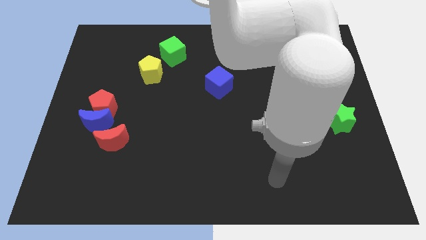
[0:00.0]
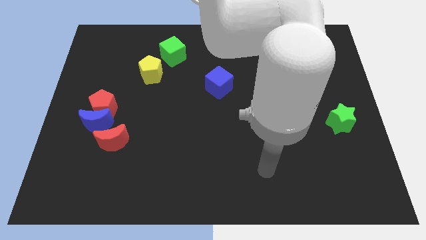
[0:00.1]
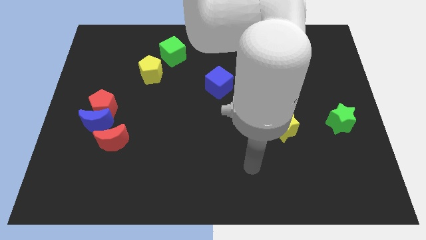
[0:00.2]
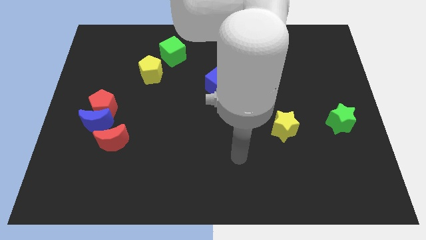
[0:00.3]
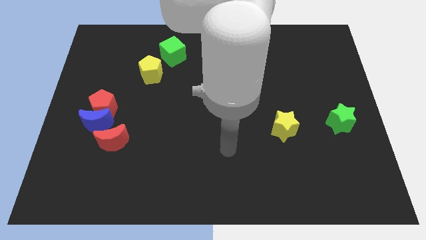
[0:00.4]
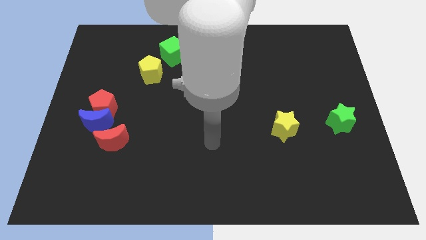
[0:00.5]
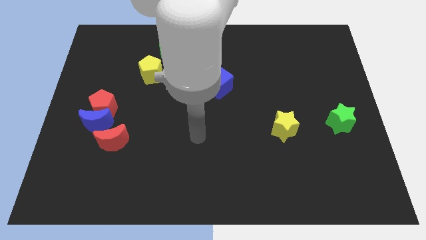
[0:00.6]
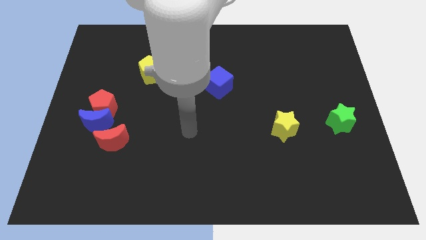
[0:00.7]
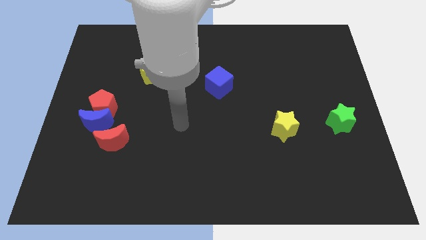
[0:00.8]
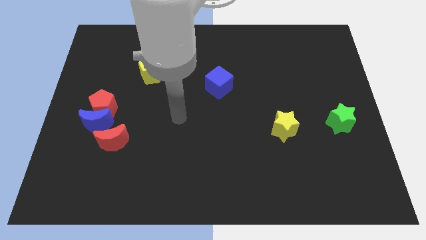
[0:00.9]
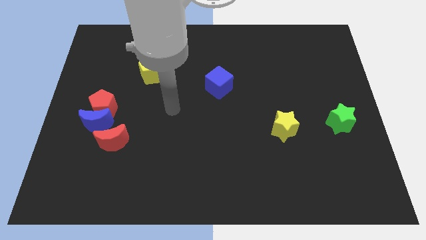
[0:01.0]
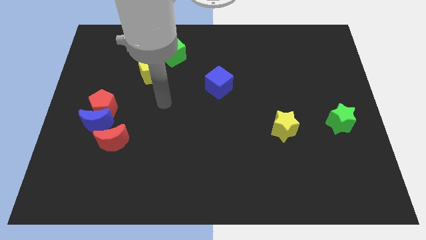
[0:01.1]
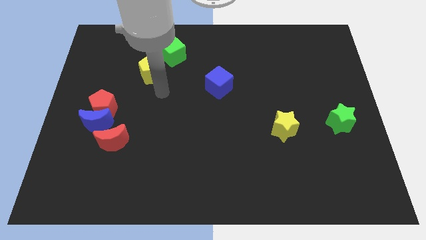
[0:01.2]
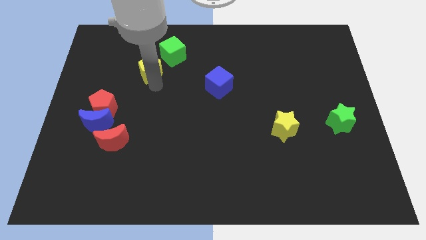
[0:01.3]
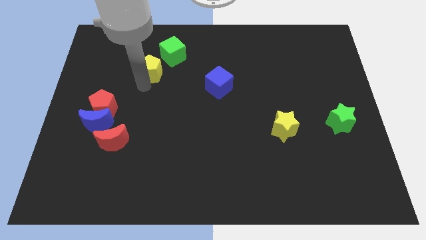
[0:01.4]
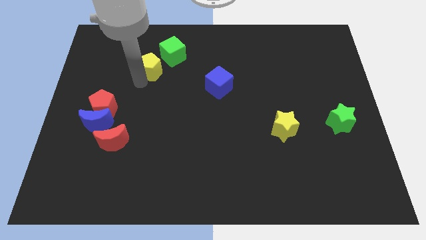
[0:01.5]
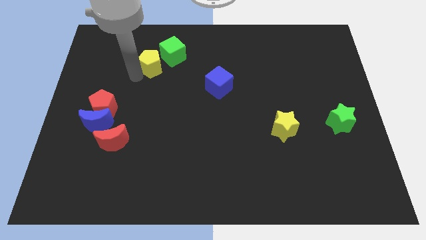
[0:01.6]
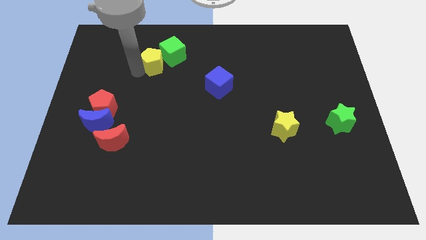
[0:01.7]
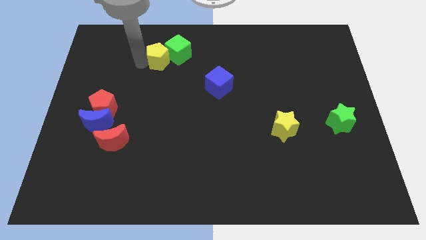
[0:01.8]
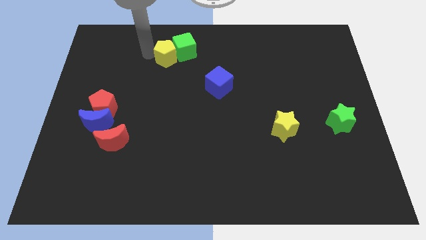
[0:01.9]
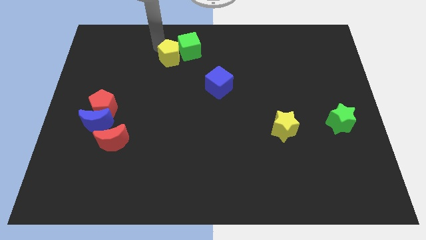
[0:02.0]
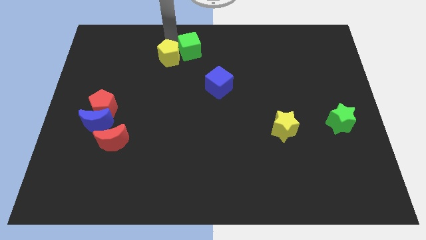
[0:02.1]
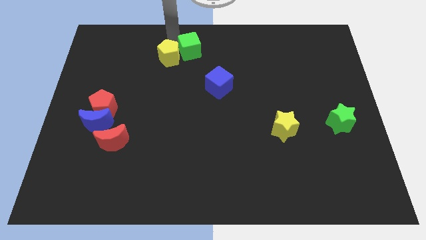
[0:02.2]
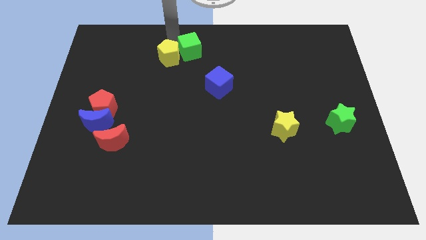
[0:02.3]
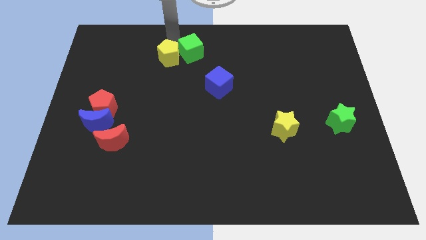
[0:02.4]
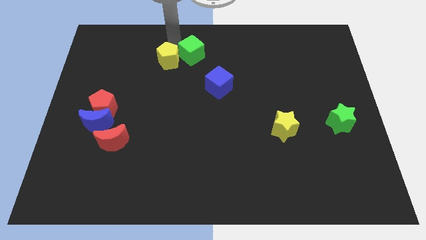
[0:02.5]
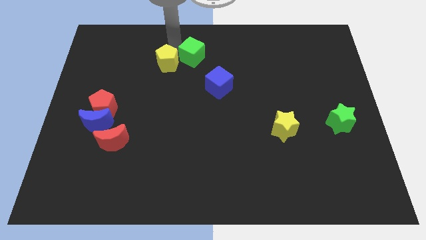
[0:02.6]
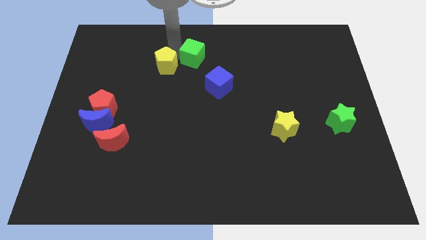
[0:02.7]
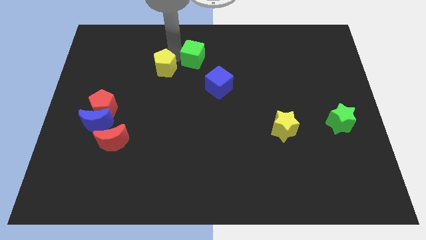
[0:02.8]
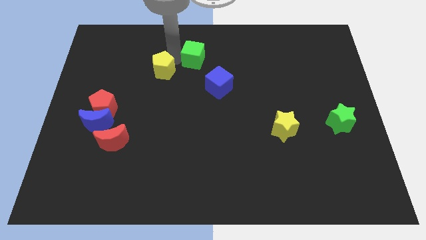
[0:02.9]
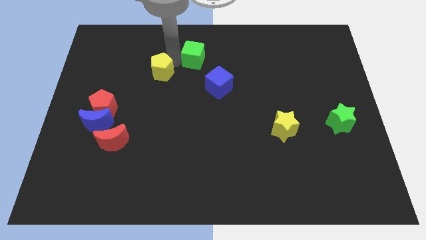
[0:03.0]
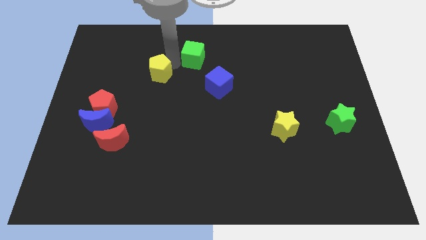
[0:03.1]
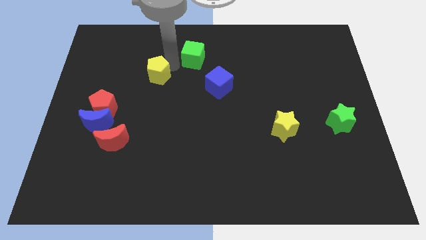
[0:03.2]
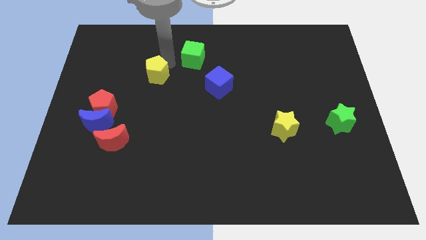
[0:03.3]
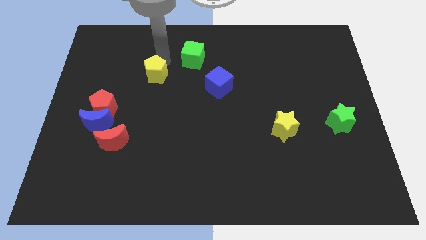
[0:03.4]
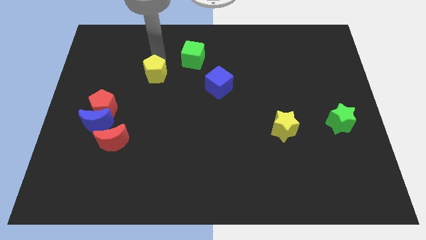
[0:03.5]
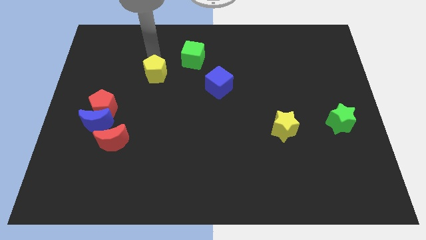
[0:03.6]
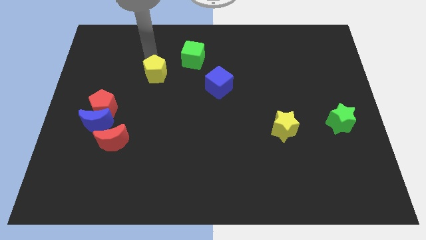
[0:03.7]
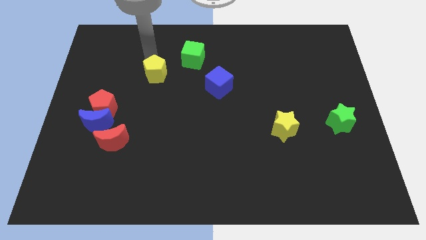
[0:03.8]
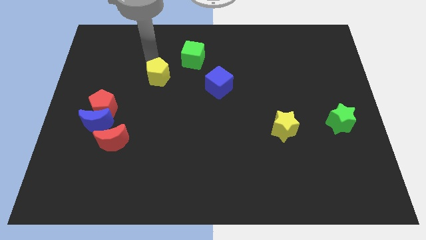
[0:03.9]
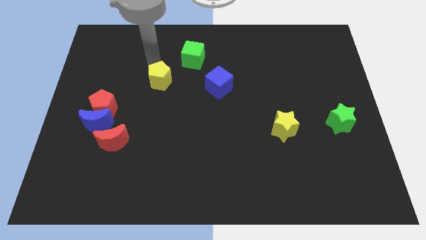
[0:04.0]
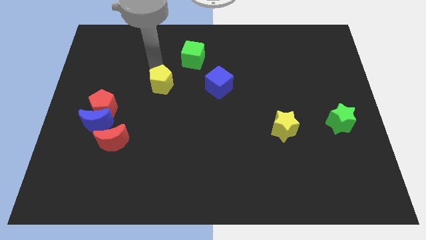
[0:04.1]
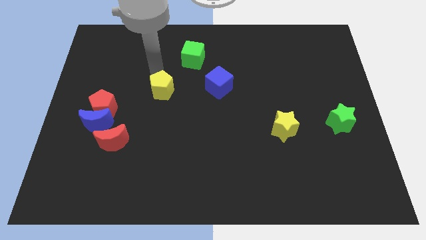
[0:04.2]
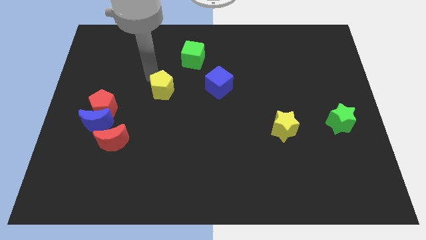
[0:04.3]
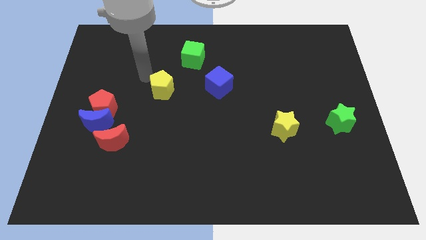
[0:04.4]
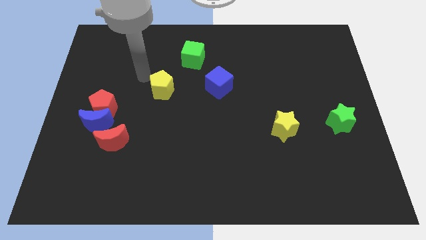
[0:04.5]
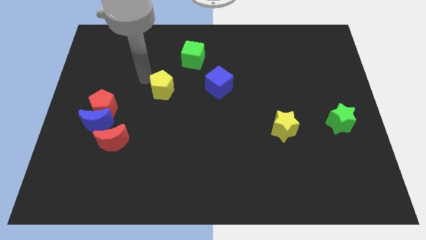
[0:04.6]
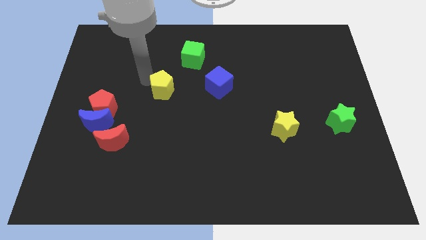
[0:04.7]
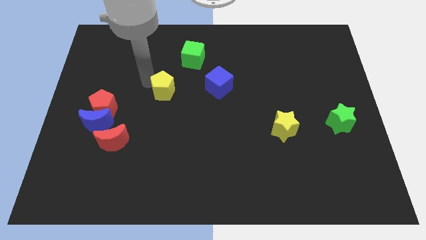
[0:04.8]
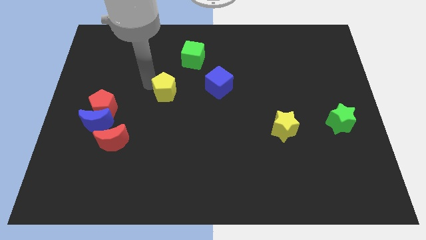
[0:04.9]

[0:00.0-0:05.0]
slide the yellow pentagon somewhat down and right

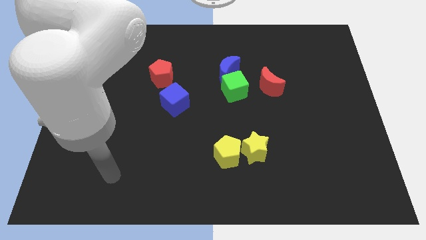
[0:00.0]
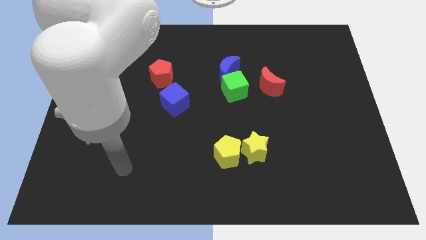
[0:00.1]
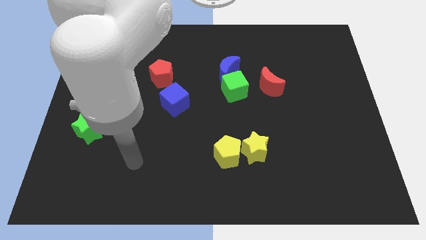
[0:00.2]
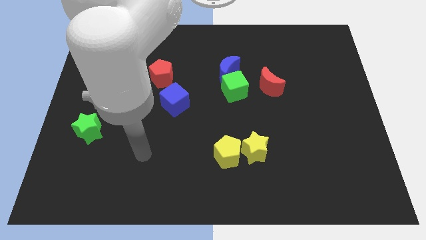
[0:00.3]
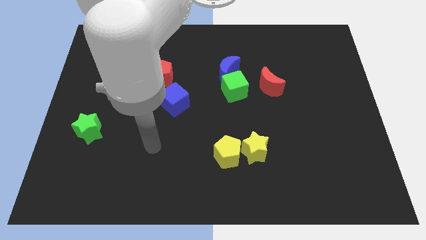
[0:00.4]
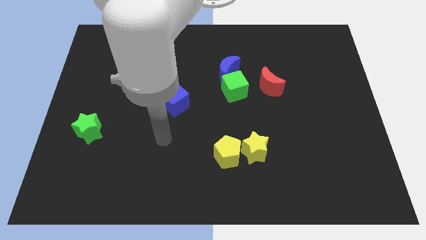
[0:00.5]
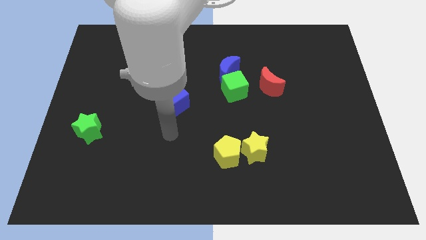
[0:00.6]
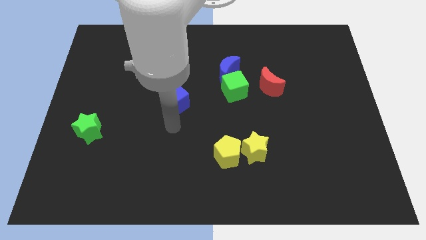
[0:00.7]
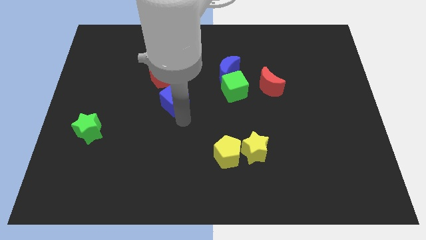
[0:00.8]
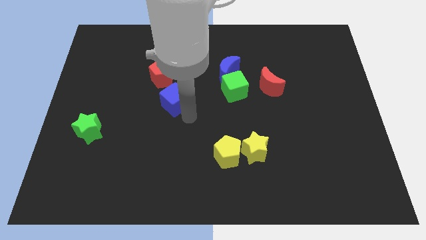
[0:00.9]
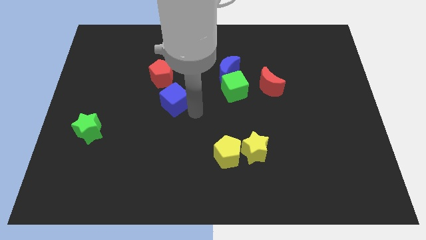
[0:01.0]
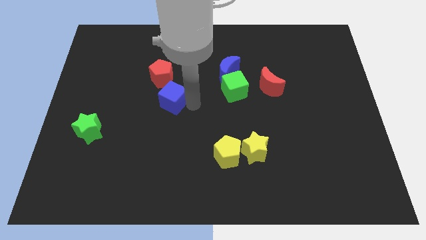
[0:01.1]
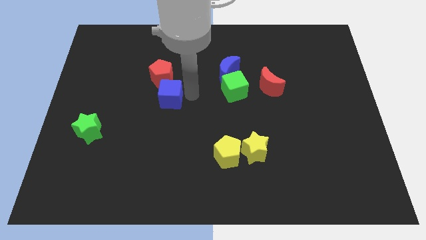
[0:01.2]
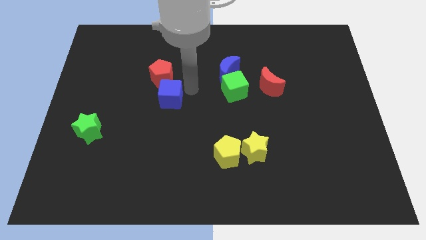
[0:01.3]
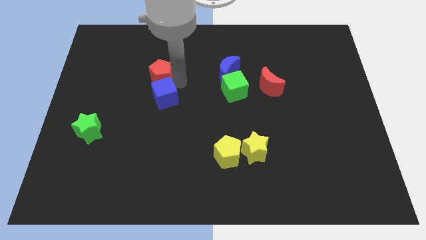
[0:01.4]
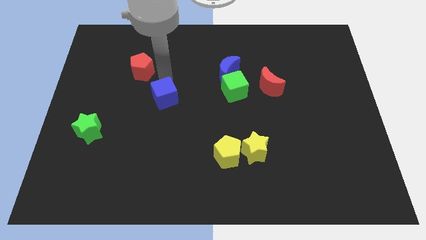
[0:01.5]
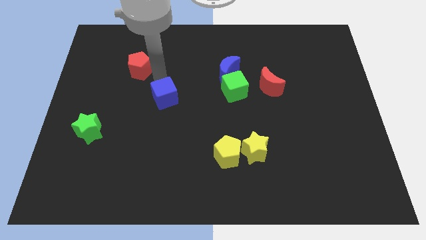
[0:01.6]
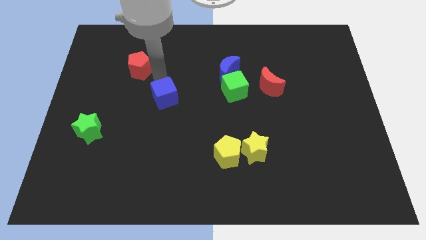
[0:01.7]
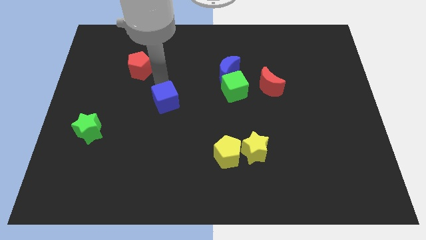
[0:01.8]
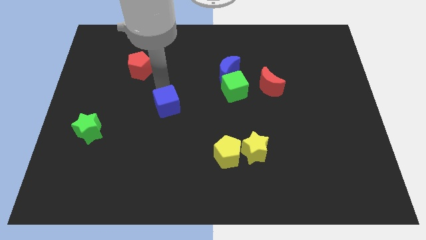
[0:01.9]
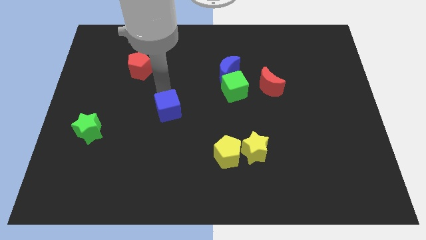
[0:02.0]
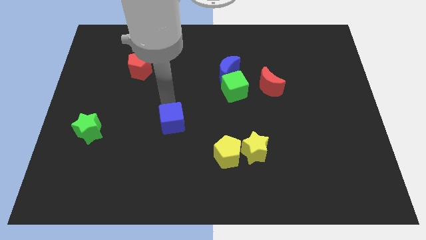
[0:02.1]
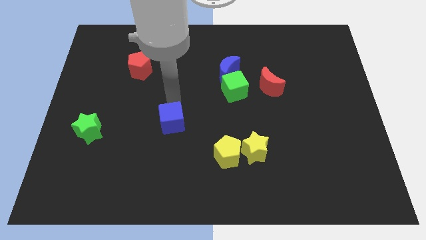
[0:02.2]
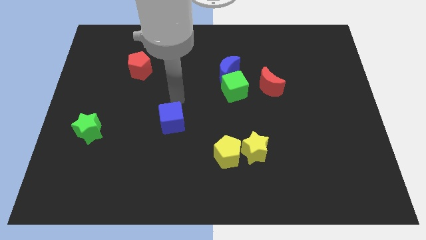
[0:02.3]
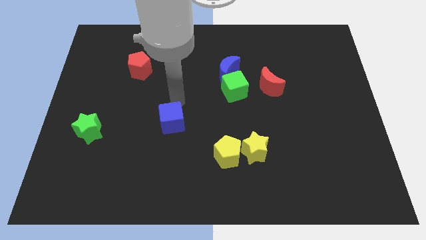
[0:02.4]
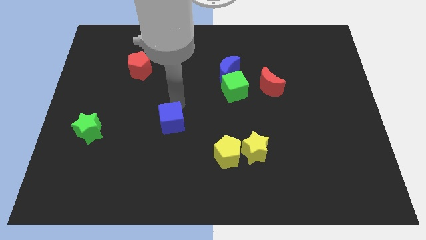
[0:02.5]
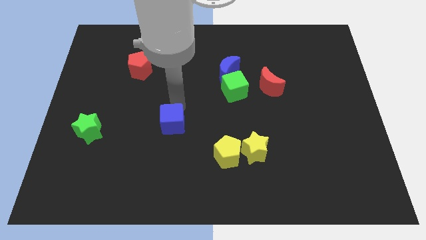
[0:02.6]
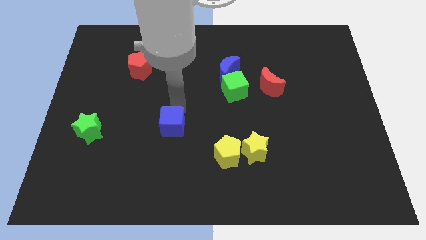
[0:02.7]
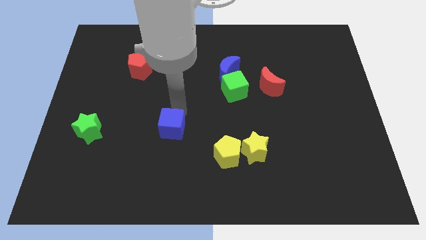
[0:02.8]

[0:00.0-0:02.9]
move the blue cube a little downwards

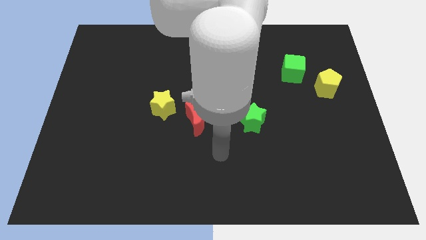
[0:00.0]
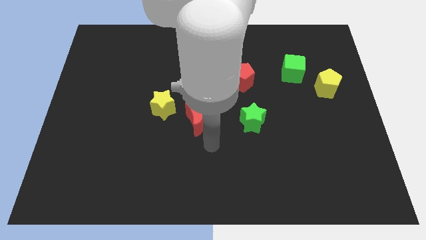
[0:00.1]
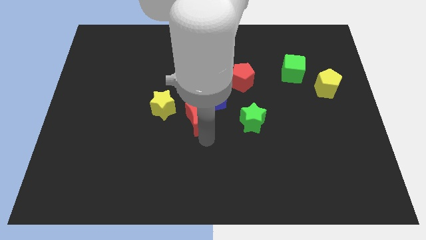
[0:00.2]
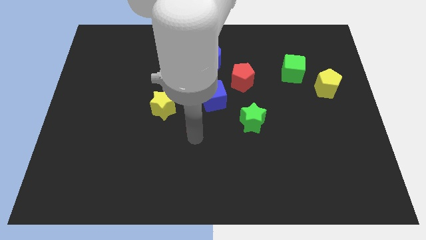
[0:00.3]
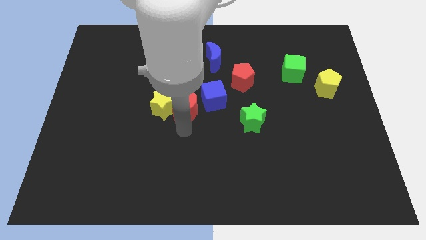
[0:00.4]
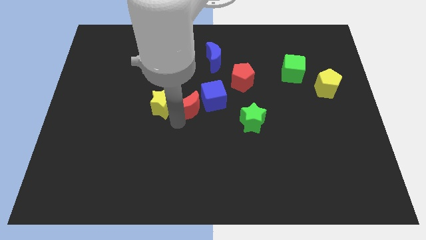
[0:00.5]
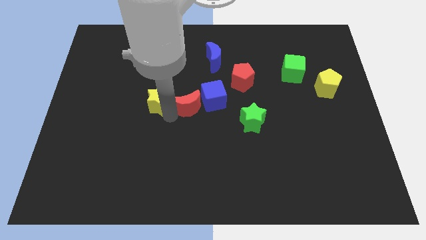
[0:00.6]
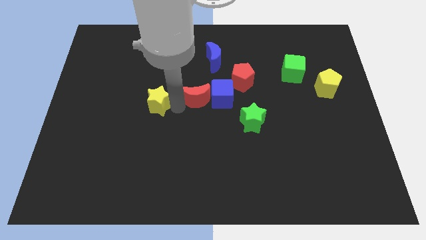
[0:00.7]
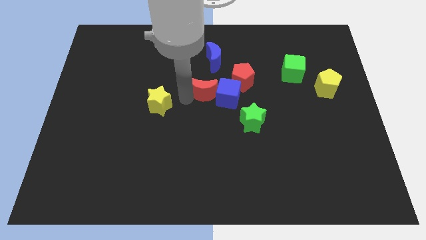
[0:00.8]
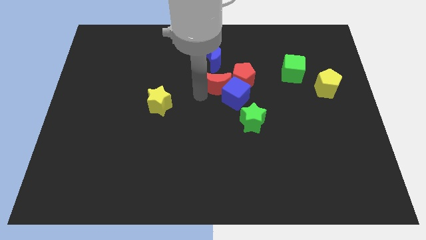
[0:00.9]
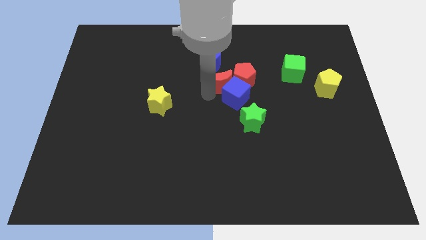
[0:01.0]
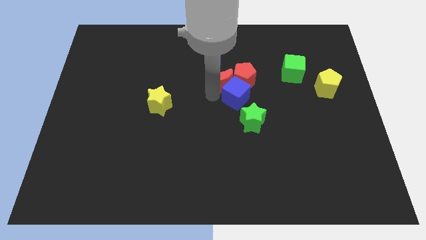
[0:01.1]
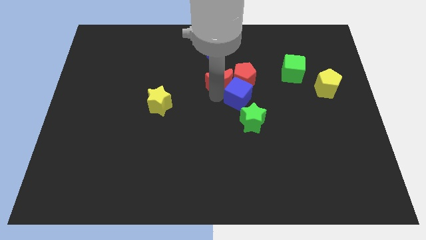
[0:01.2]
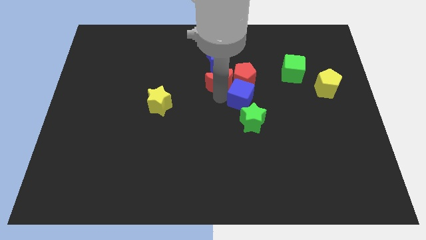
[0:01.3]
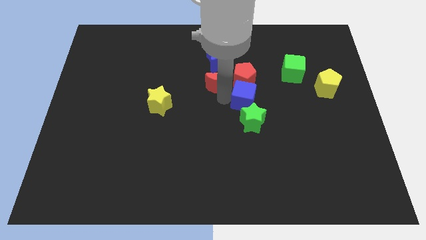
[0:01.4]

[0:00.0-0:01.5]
push the blue cube a bit right
